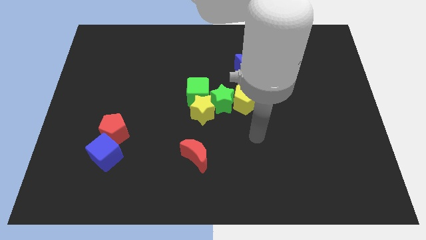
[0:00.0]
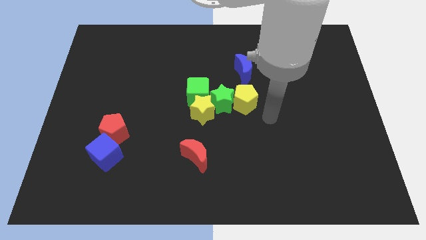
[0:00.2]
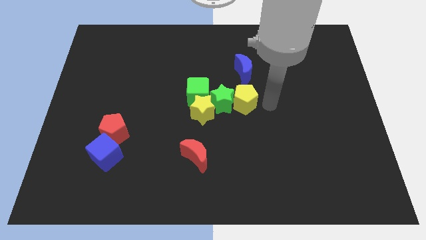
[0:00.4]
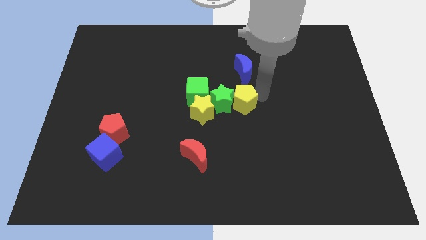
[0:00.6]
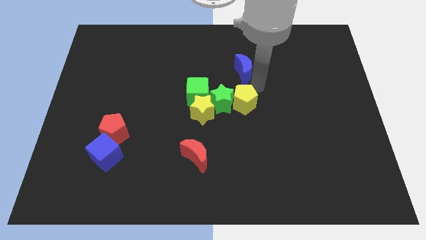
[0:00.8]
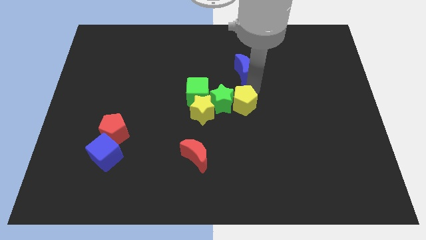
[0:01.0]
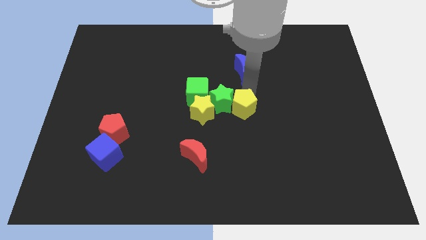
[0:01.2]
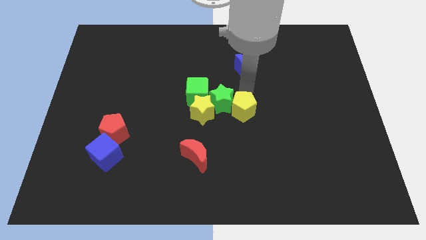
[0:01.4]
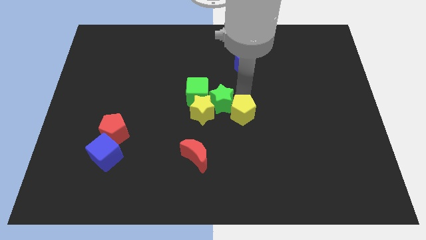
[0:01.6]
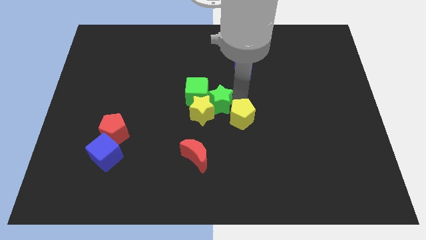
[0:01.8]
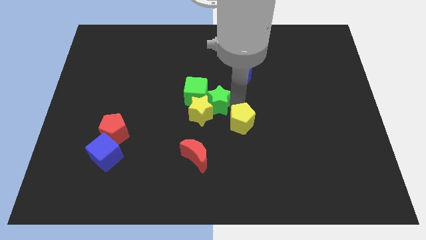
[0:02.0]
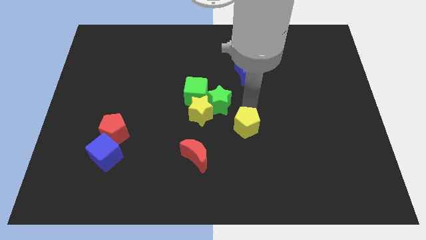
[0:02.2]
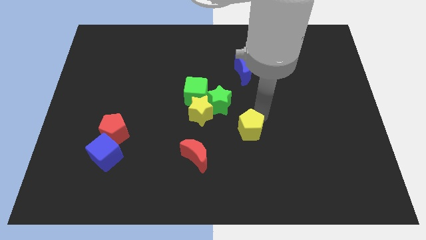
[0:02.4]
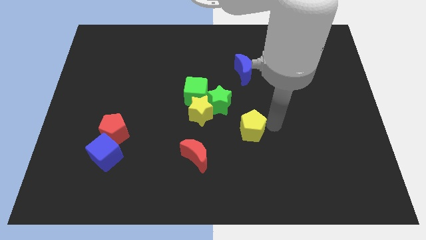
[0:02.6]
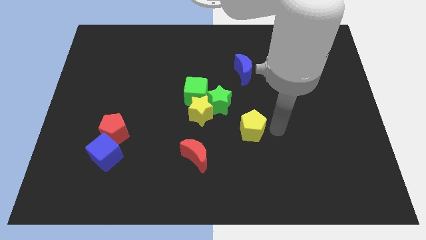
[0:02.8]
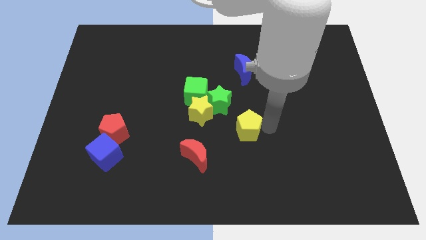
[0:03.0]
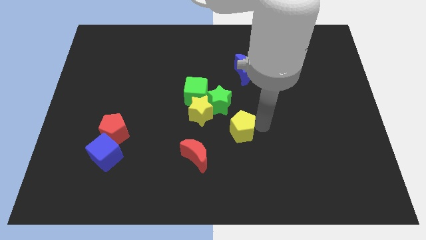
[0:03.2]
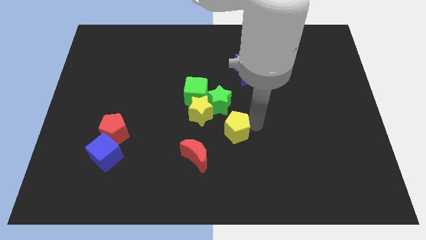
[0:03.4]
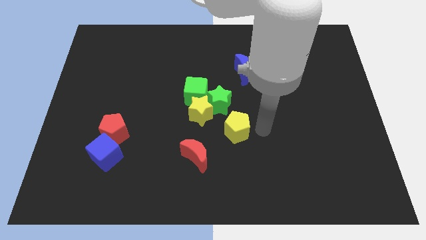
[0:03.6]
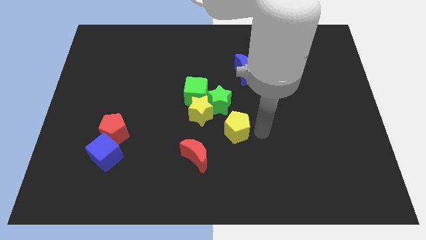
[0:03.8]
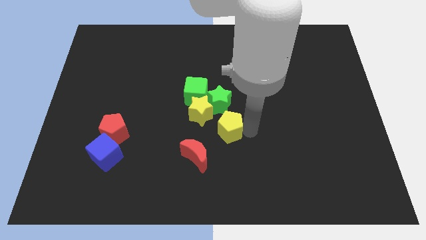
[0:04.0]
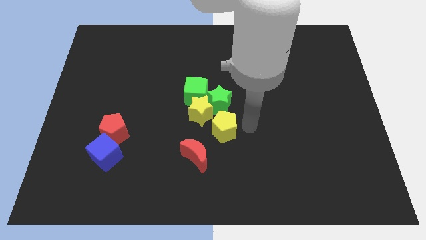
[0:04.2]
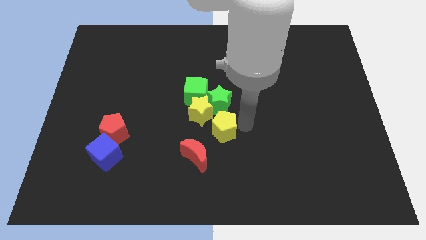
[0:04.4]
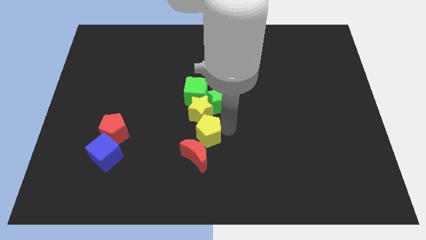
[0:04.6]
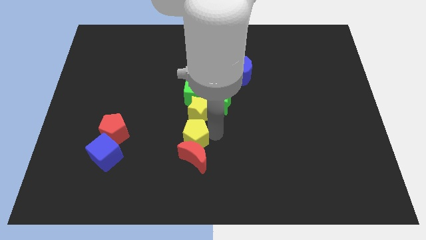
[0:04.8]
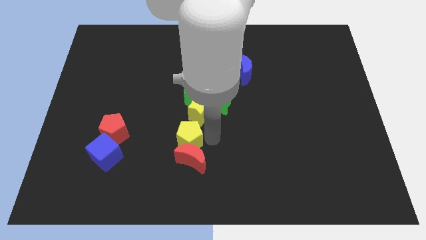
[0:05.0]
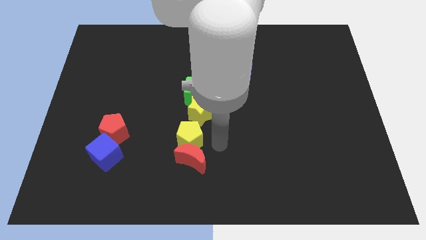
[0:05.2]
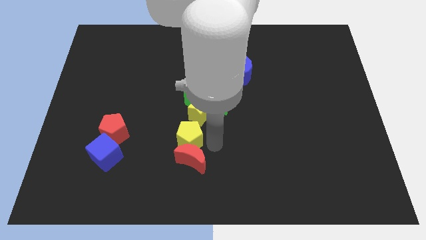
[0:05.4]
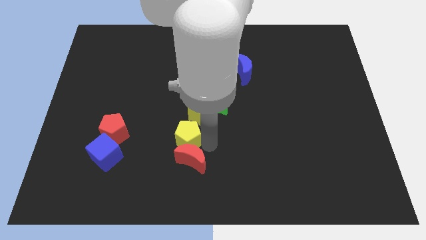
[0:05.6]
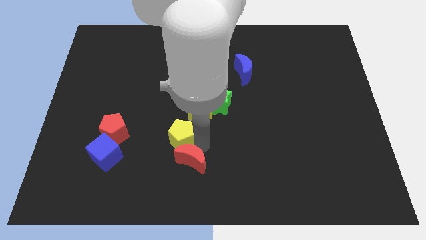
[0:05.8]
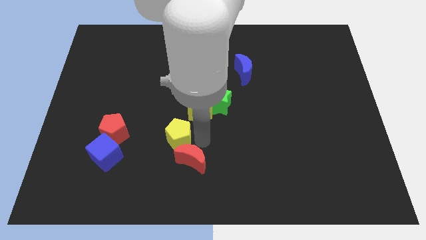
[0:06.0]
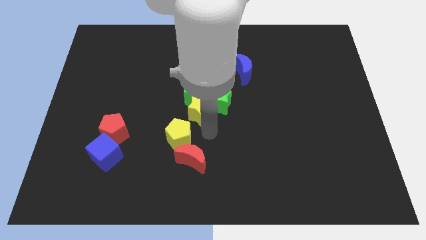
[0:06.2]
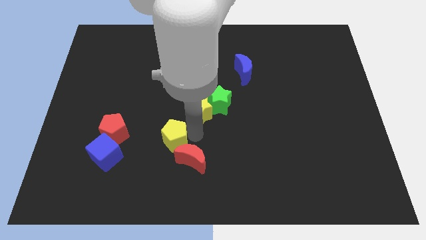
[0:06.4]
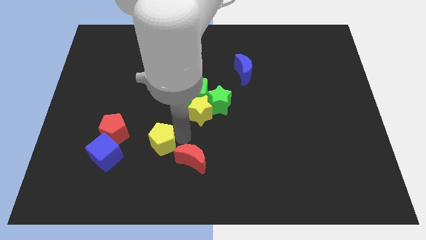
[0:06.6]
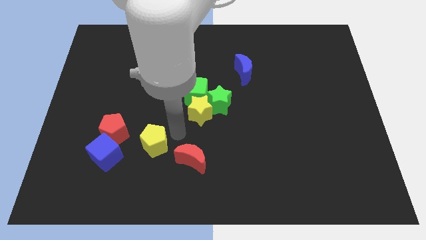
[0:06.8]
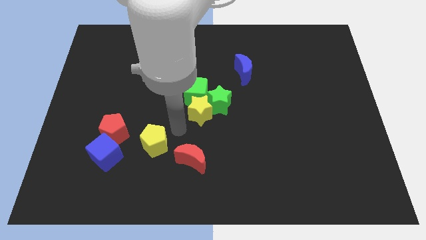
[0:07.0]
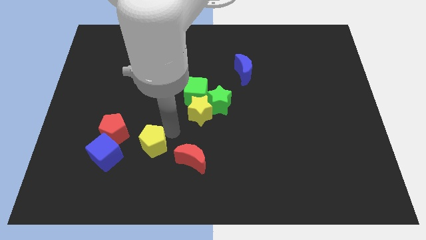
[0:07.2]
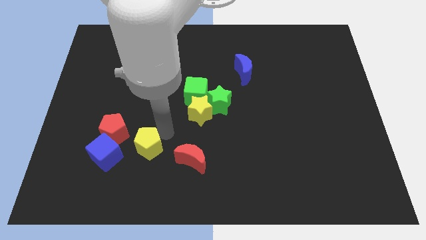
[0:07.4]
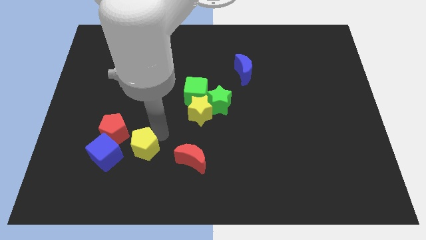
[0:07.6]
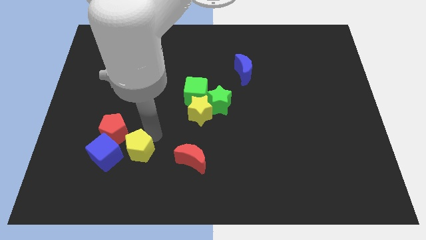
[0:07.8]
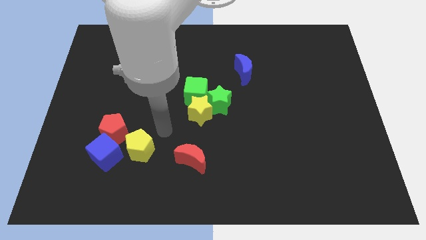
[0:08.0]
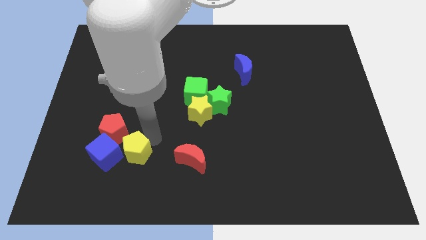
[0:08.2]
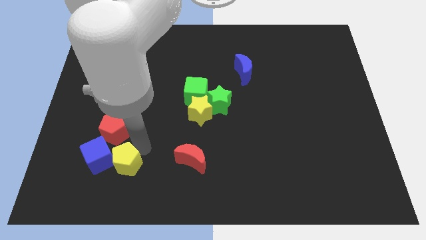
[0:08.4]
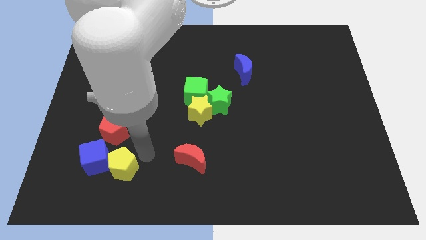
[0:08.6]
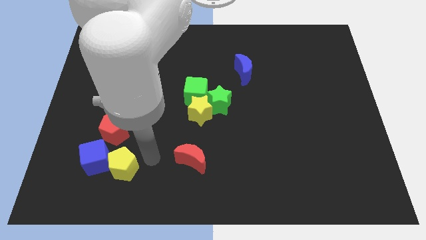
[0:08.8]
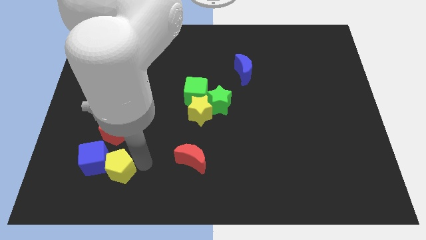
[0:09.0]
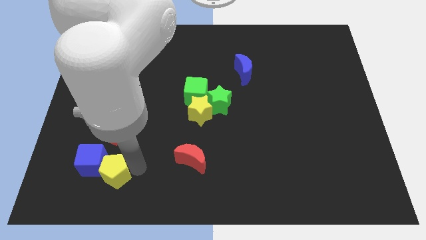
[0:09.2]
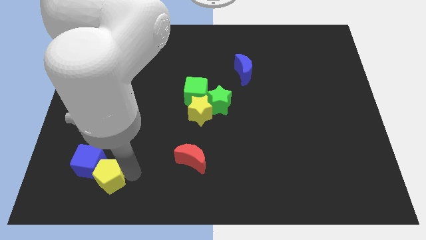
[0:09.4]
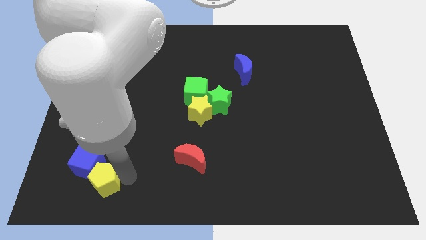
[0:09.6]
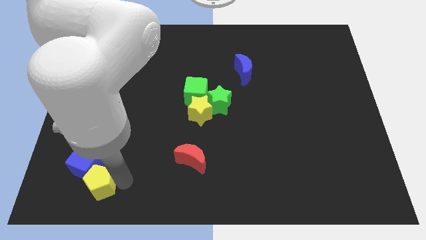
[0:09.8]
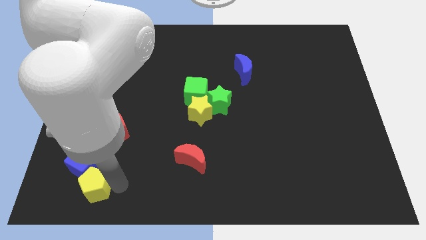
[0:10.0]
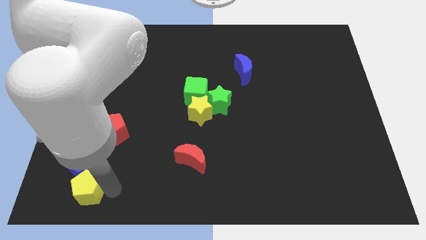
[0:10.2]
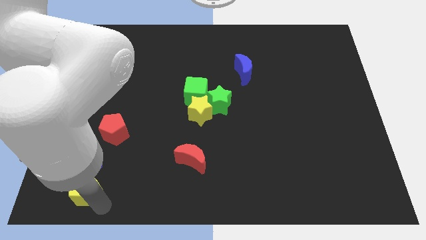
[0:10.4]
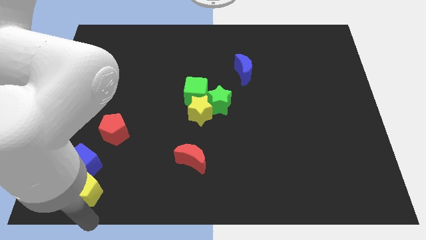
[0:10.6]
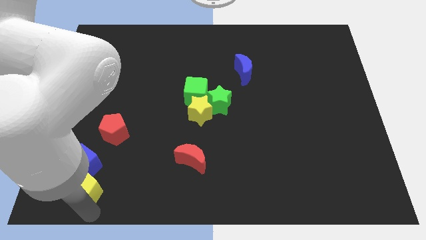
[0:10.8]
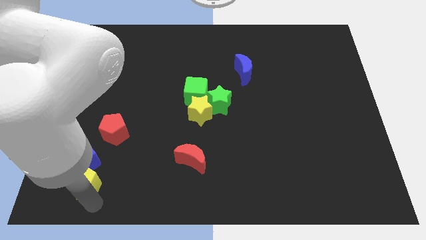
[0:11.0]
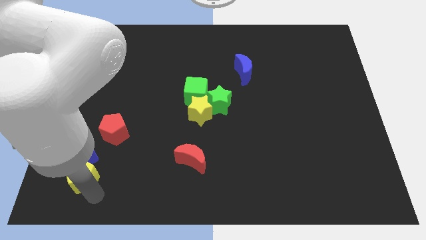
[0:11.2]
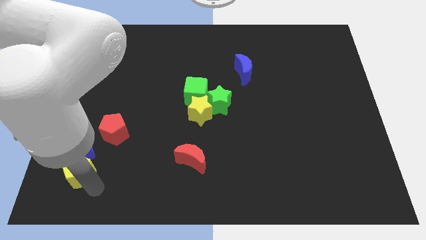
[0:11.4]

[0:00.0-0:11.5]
slide the yellow pentagon diagonally down and to the left of the red pentagon
